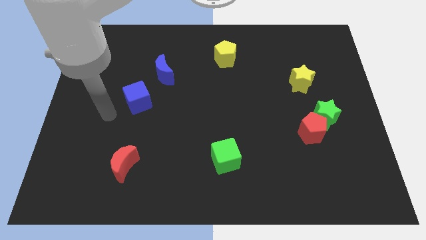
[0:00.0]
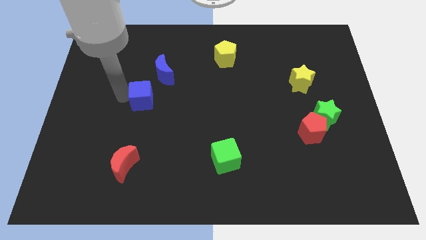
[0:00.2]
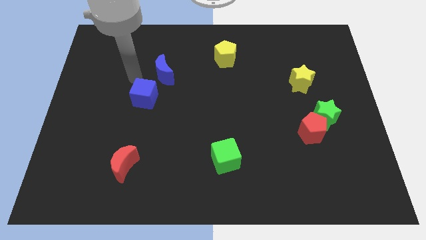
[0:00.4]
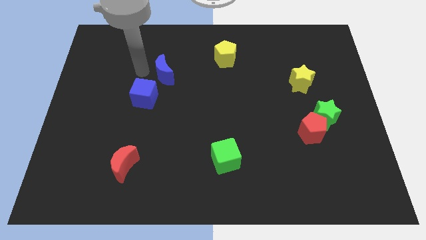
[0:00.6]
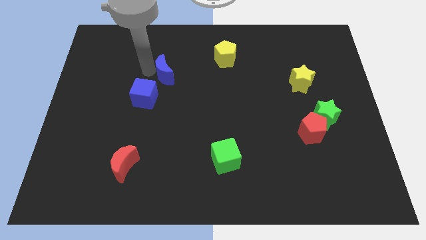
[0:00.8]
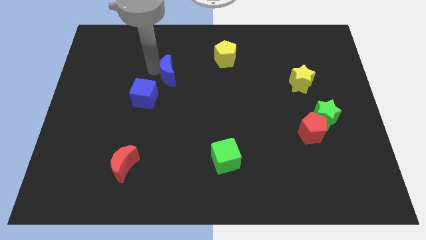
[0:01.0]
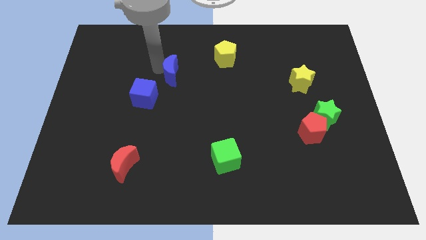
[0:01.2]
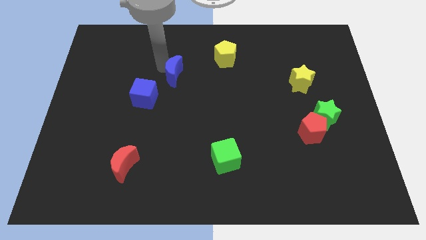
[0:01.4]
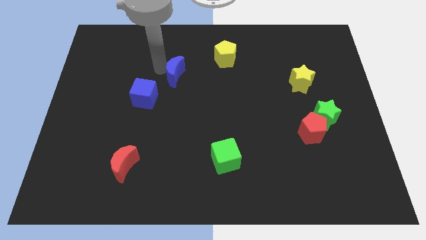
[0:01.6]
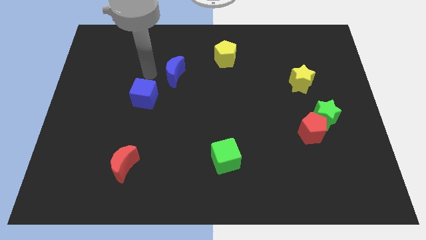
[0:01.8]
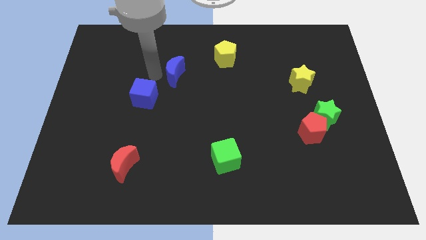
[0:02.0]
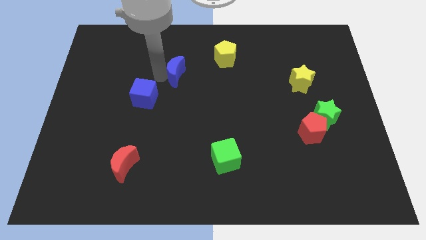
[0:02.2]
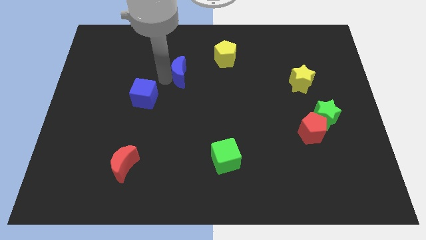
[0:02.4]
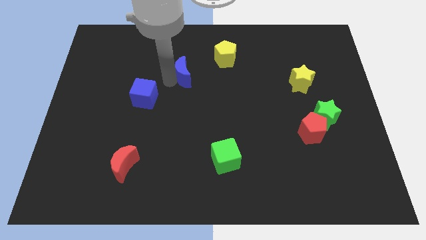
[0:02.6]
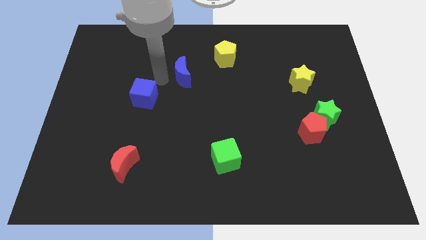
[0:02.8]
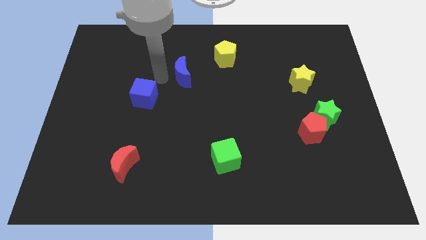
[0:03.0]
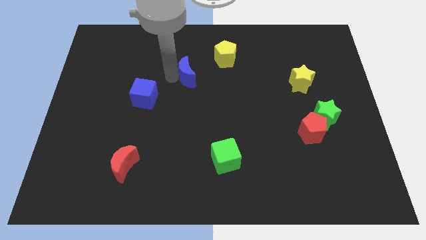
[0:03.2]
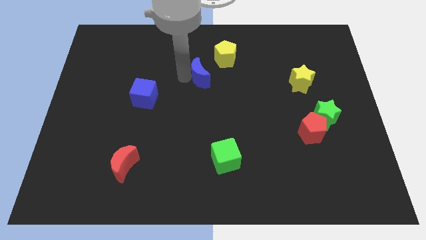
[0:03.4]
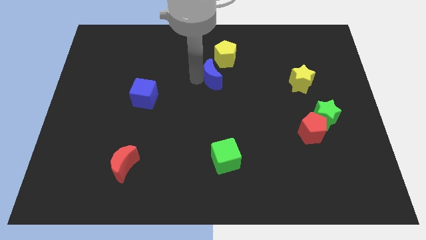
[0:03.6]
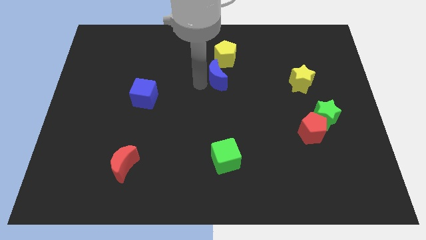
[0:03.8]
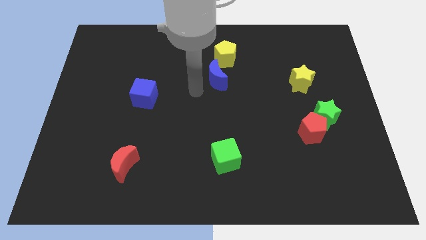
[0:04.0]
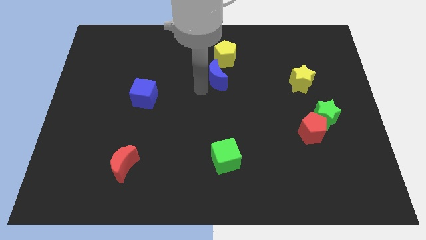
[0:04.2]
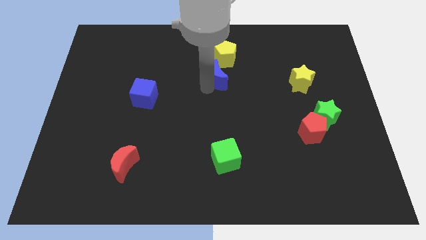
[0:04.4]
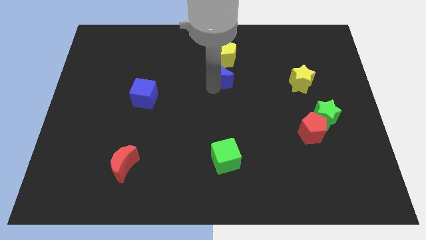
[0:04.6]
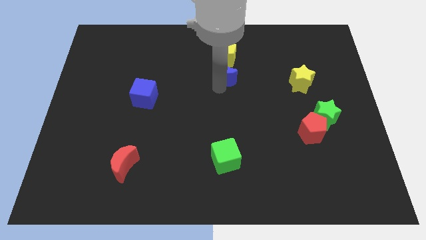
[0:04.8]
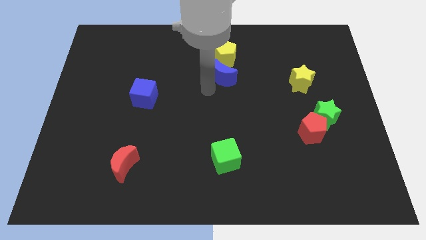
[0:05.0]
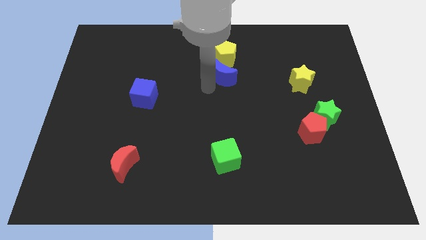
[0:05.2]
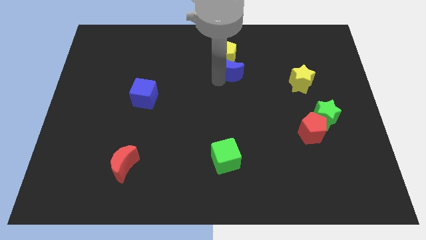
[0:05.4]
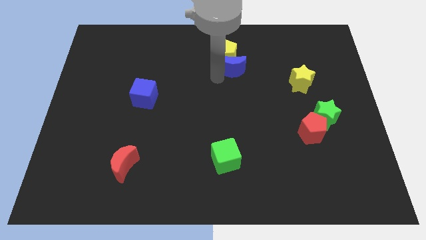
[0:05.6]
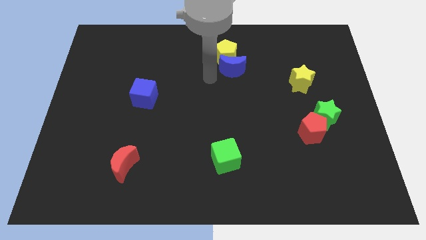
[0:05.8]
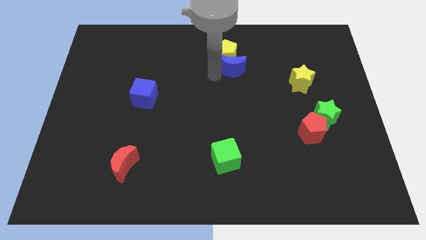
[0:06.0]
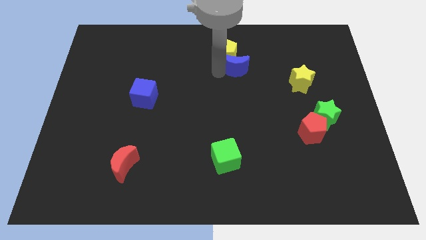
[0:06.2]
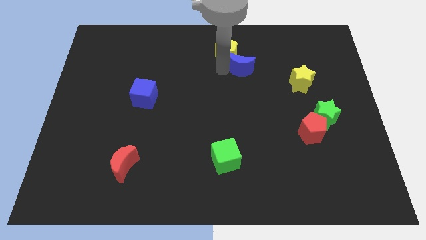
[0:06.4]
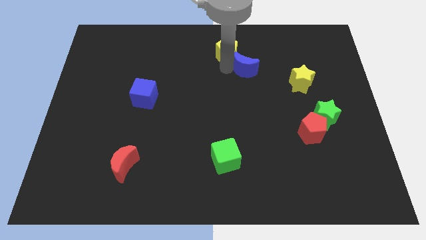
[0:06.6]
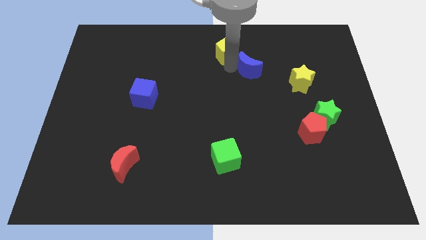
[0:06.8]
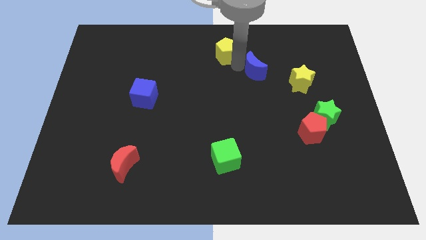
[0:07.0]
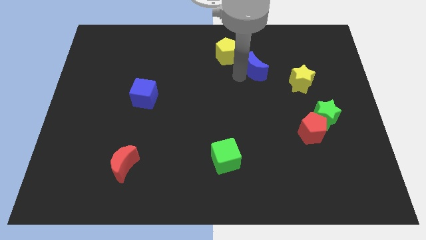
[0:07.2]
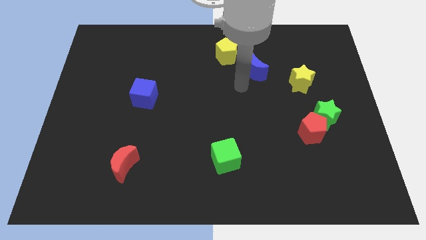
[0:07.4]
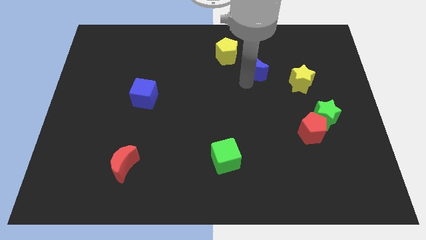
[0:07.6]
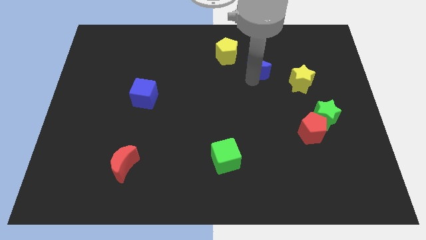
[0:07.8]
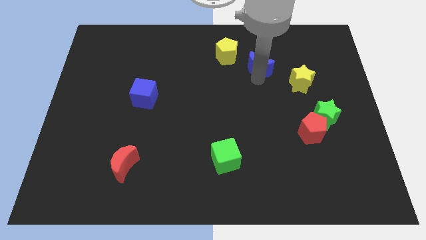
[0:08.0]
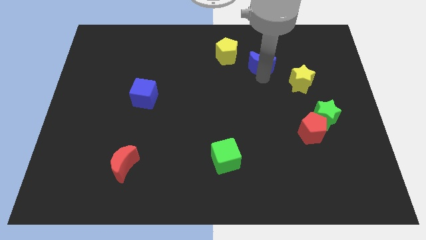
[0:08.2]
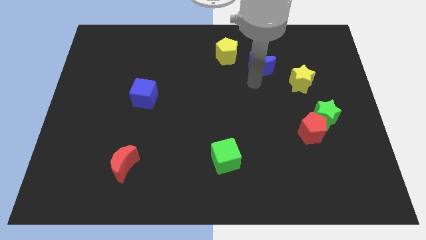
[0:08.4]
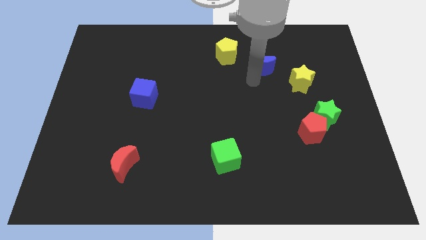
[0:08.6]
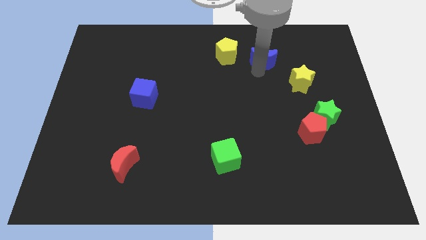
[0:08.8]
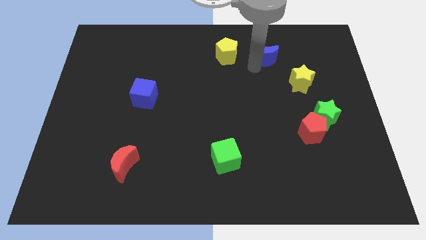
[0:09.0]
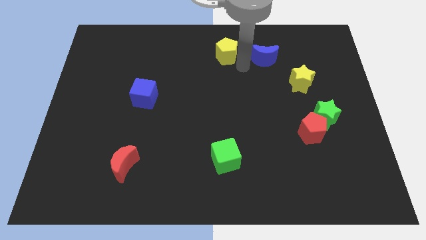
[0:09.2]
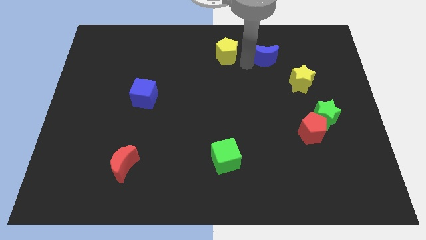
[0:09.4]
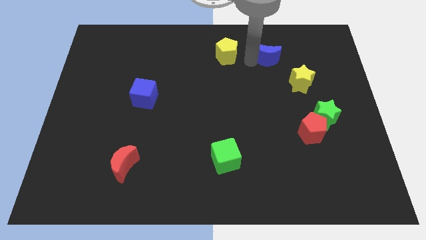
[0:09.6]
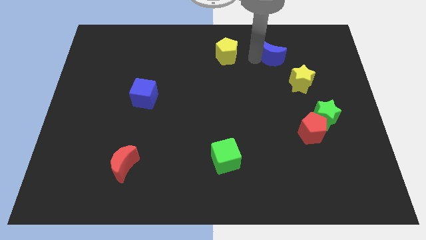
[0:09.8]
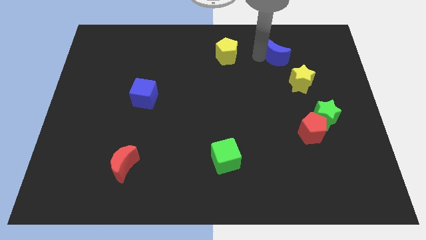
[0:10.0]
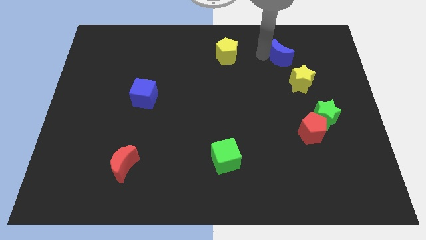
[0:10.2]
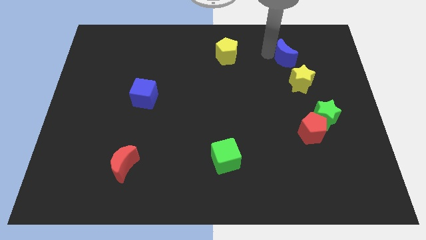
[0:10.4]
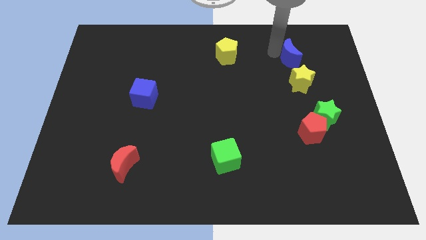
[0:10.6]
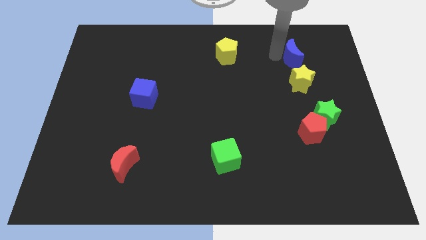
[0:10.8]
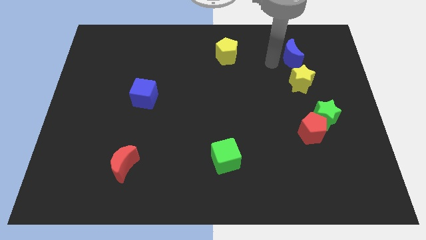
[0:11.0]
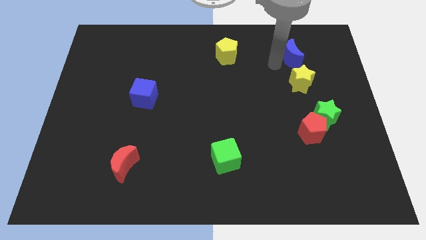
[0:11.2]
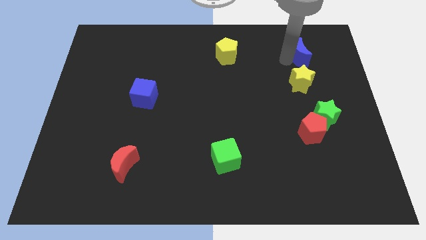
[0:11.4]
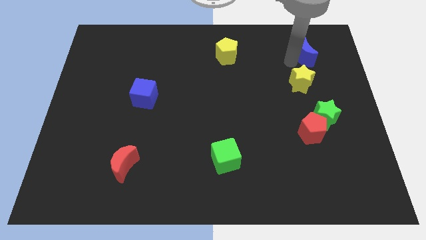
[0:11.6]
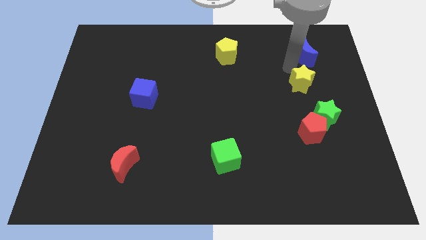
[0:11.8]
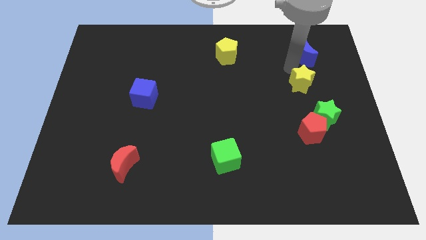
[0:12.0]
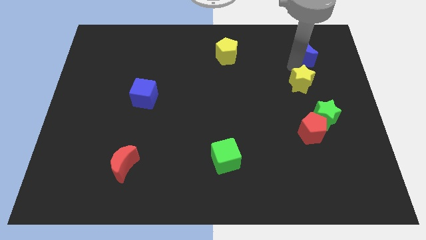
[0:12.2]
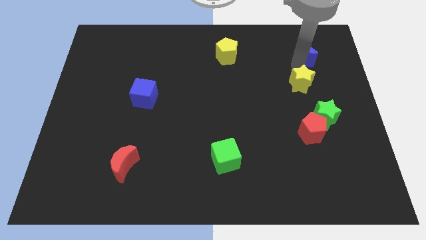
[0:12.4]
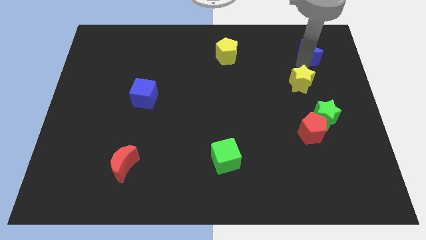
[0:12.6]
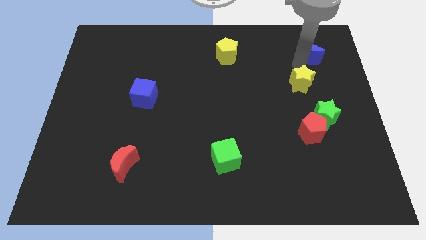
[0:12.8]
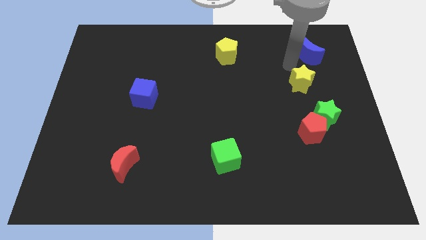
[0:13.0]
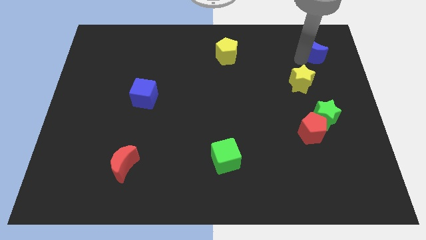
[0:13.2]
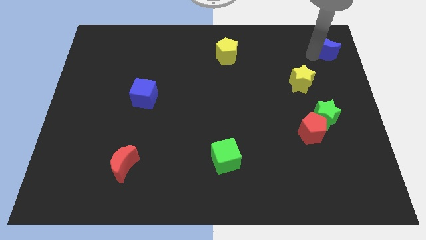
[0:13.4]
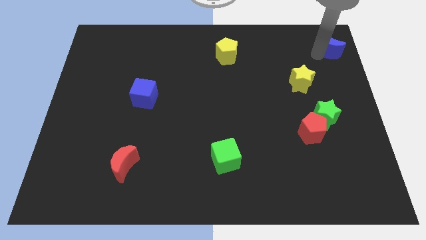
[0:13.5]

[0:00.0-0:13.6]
push the blue moon to the top right

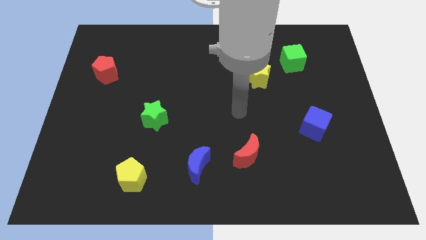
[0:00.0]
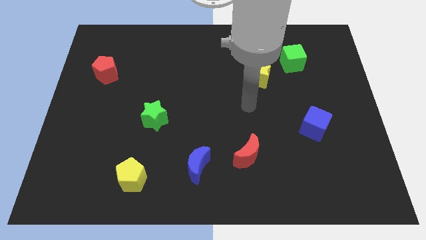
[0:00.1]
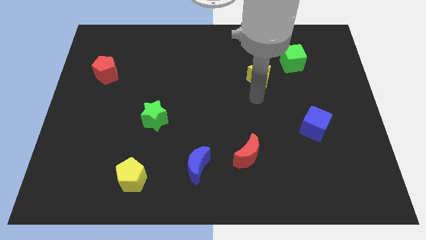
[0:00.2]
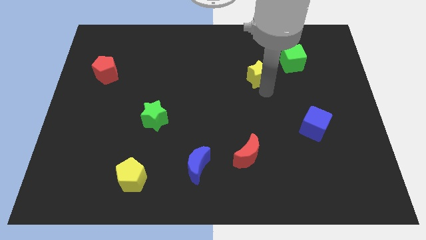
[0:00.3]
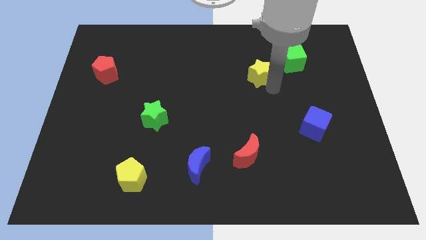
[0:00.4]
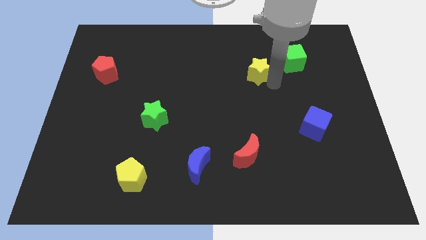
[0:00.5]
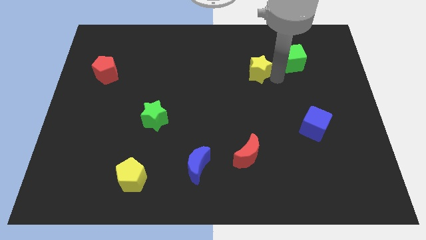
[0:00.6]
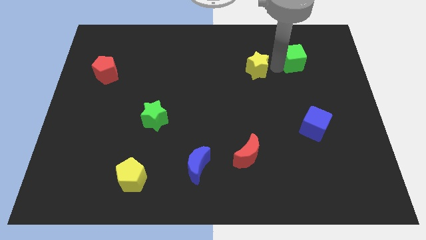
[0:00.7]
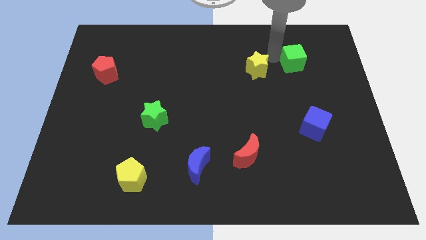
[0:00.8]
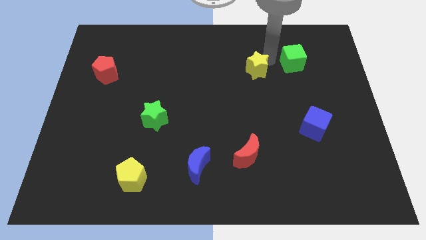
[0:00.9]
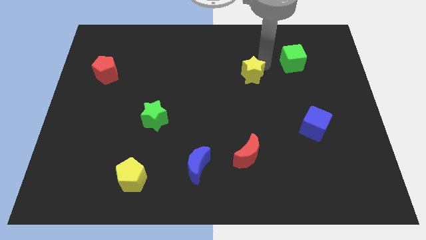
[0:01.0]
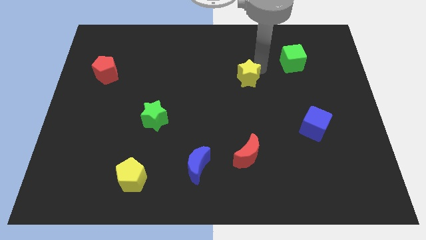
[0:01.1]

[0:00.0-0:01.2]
move the yellow star to the center
